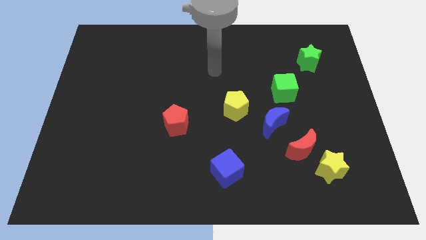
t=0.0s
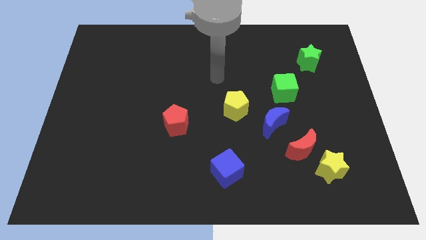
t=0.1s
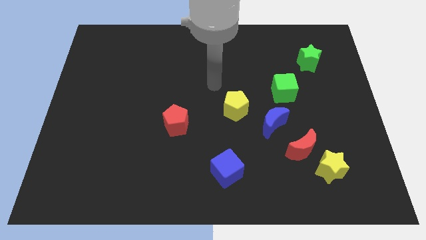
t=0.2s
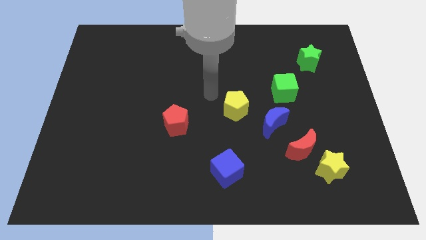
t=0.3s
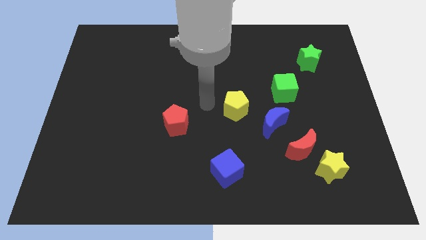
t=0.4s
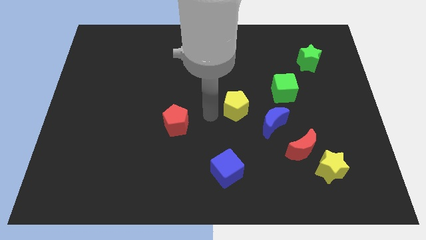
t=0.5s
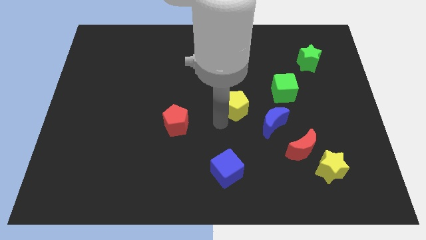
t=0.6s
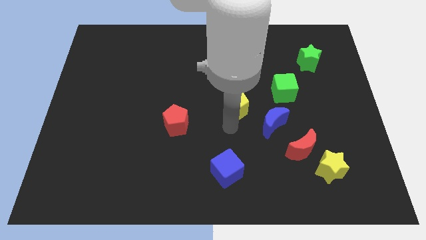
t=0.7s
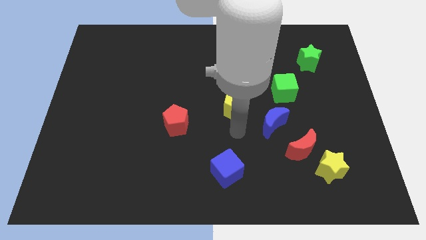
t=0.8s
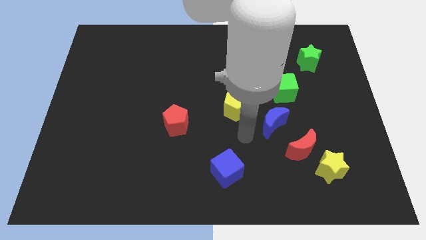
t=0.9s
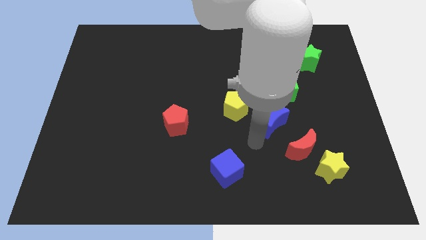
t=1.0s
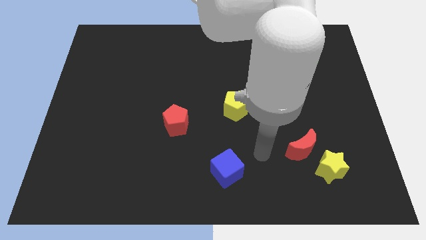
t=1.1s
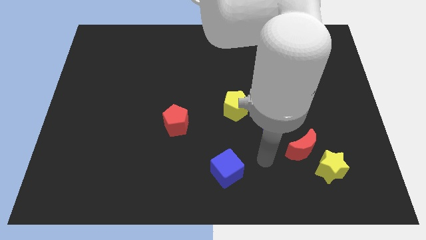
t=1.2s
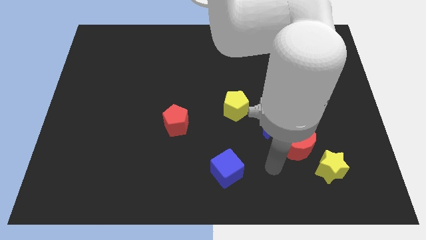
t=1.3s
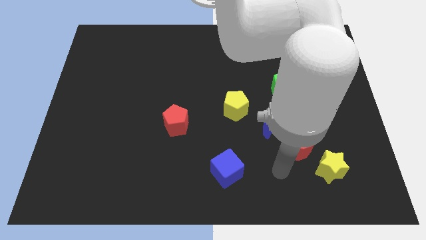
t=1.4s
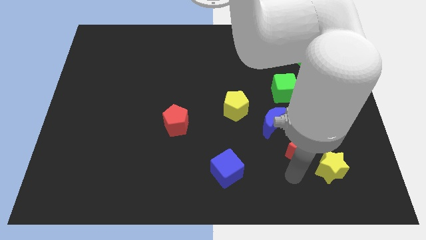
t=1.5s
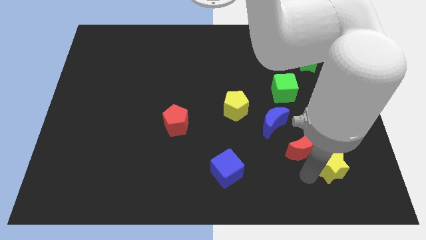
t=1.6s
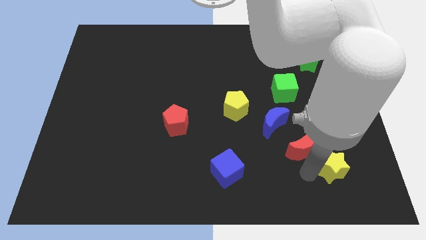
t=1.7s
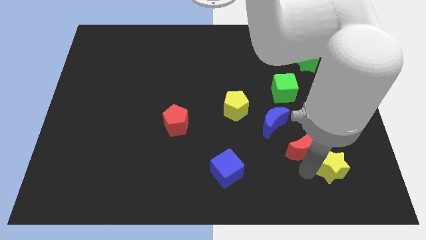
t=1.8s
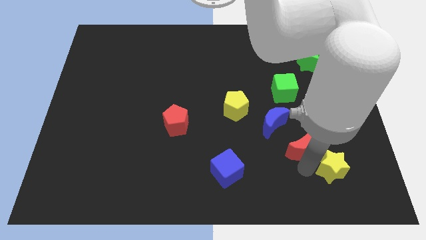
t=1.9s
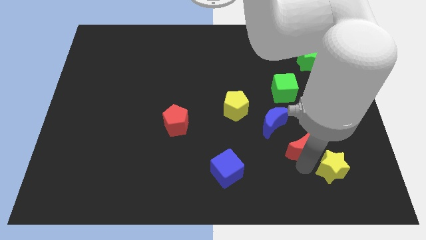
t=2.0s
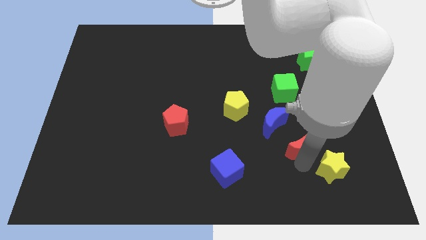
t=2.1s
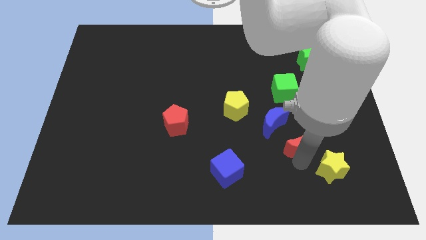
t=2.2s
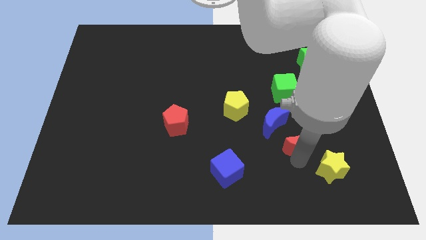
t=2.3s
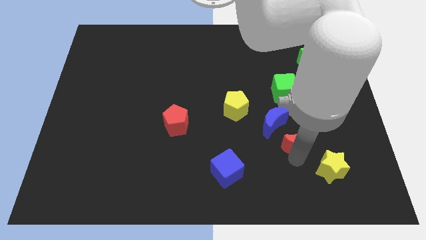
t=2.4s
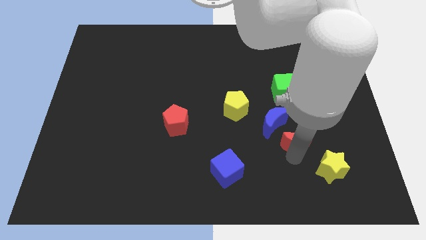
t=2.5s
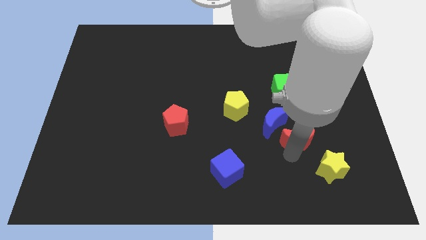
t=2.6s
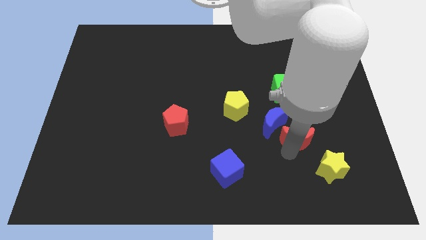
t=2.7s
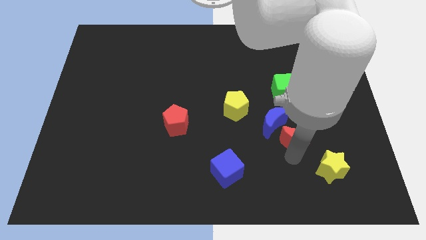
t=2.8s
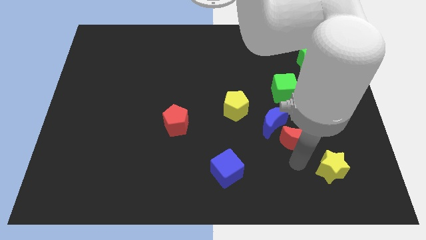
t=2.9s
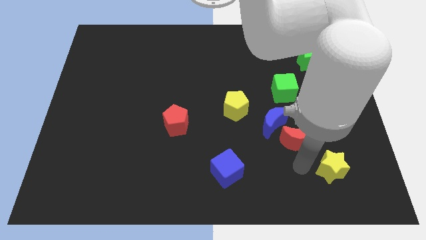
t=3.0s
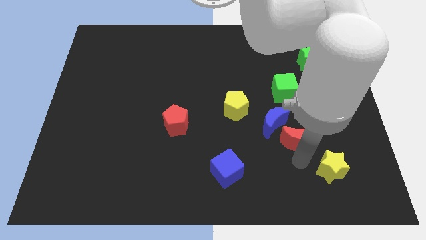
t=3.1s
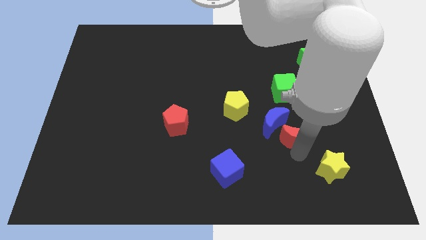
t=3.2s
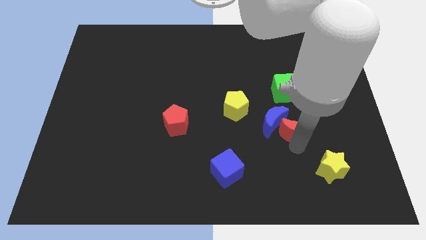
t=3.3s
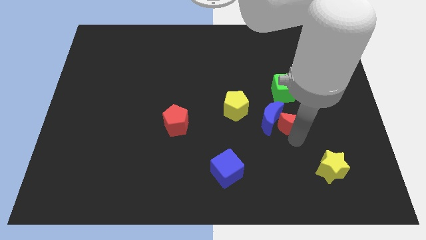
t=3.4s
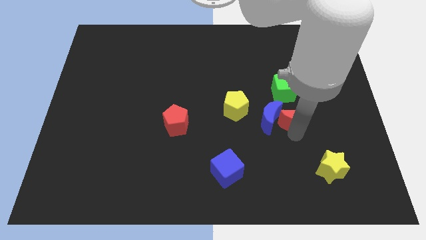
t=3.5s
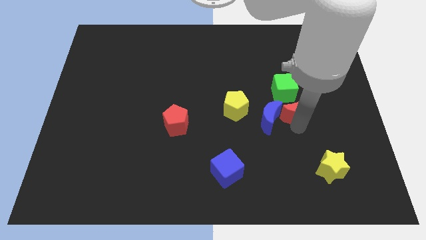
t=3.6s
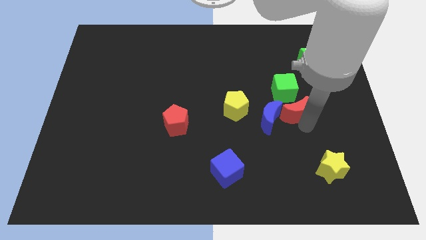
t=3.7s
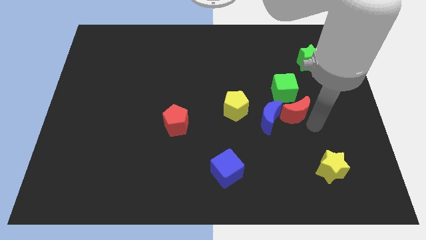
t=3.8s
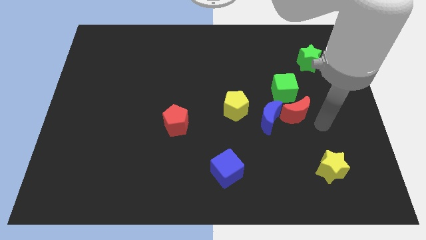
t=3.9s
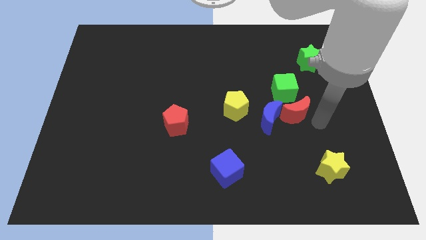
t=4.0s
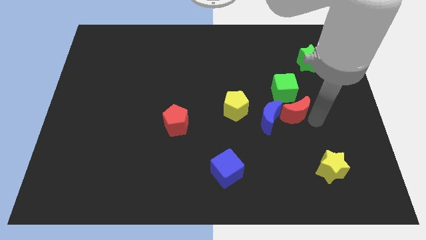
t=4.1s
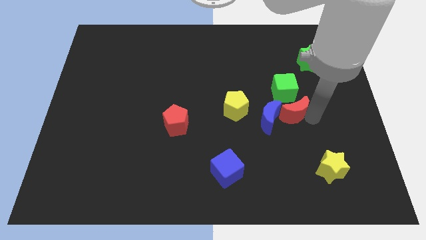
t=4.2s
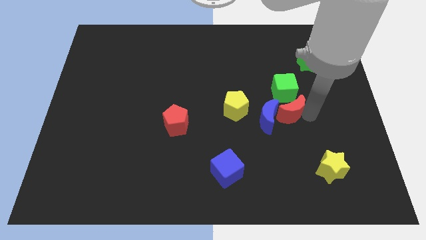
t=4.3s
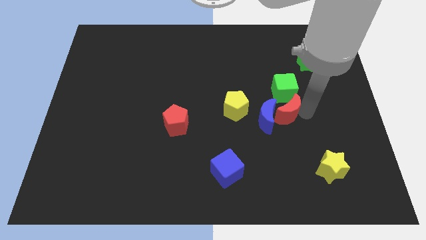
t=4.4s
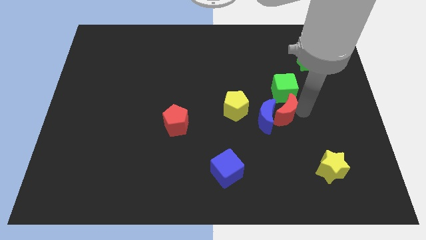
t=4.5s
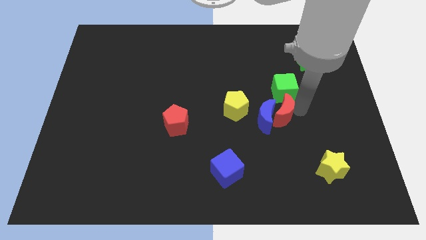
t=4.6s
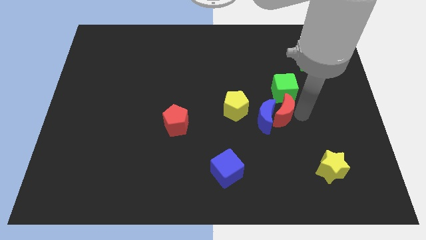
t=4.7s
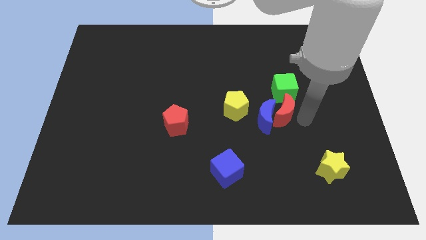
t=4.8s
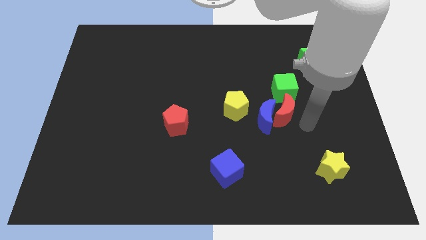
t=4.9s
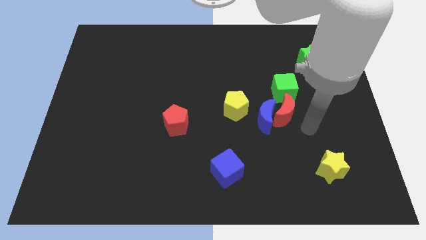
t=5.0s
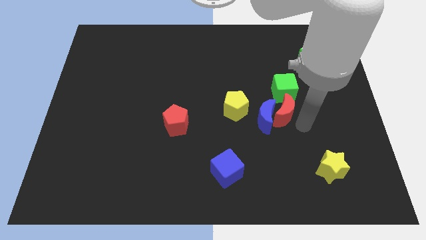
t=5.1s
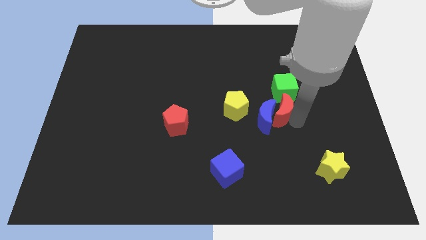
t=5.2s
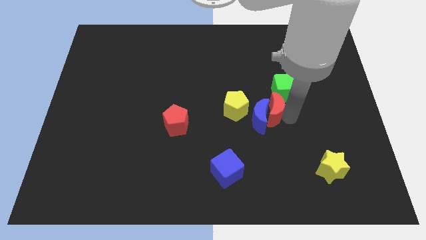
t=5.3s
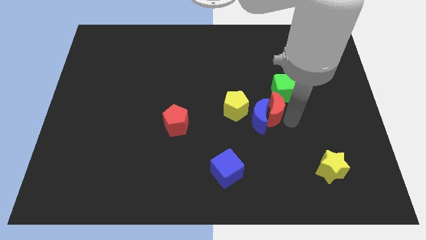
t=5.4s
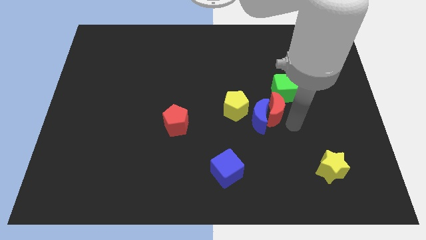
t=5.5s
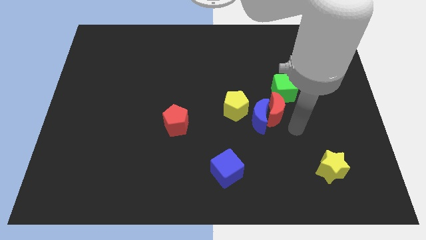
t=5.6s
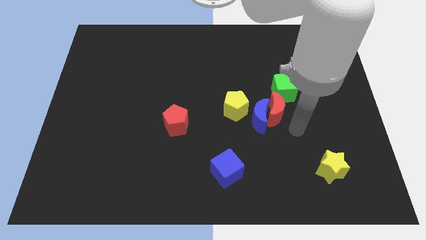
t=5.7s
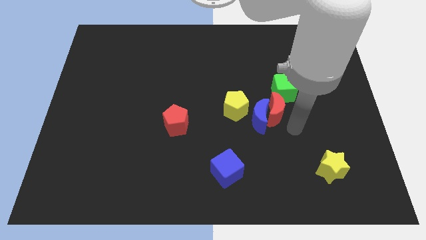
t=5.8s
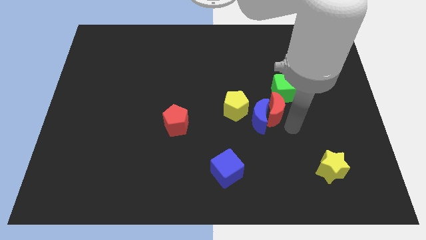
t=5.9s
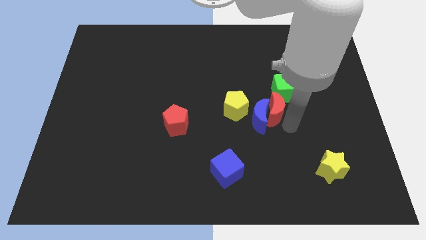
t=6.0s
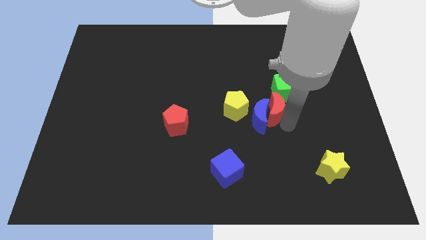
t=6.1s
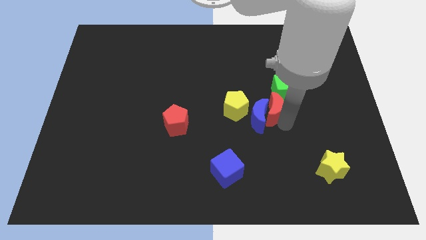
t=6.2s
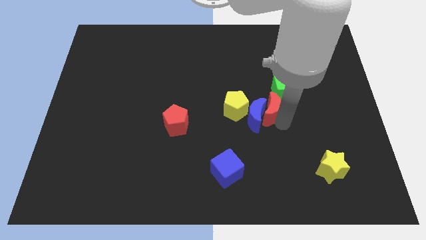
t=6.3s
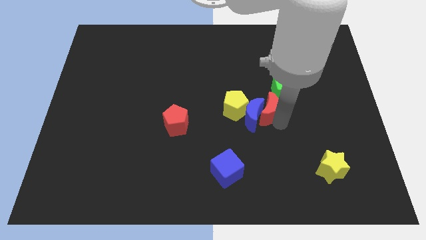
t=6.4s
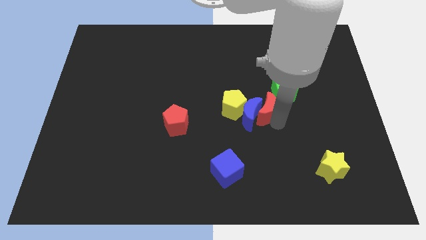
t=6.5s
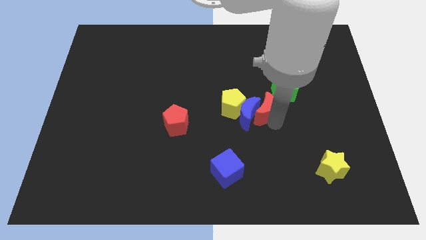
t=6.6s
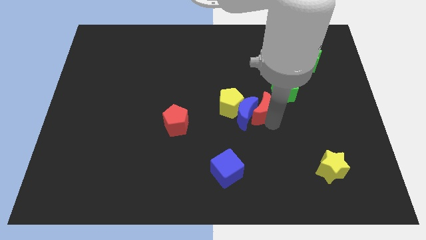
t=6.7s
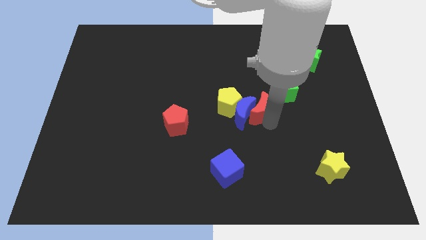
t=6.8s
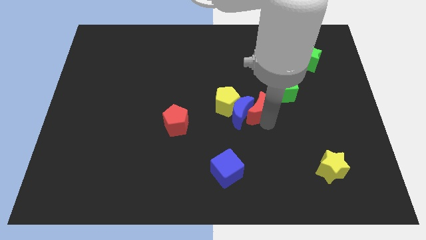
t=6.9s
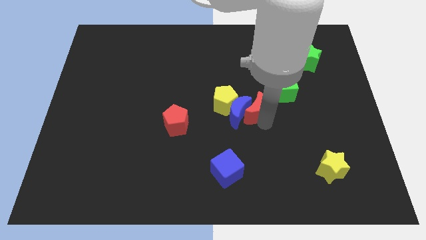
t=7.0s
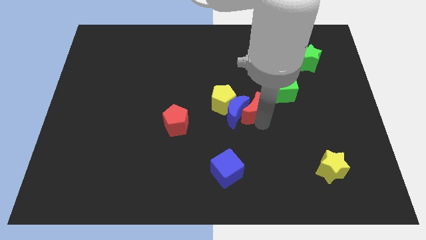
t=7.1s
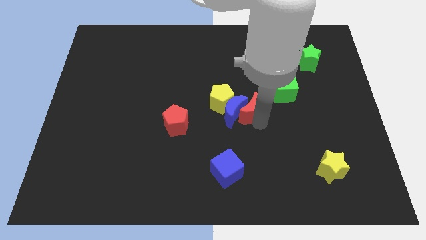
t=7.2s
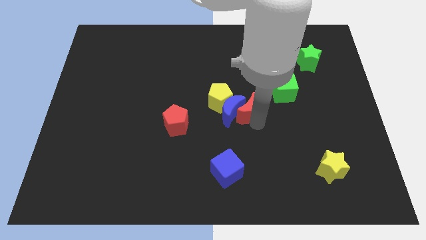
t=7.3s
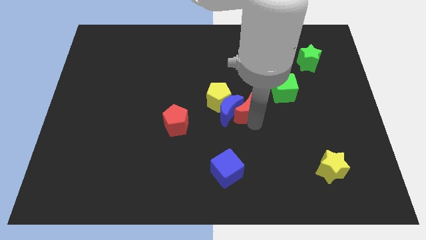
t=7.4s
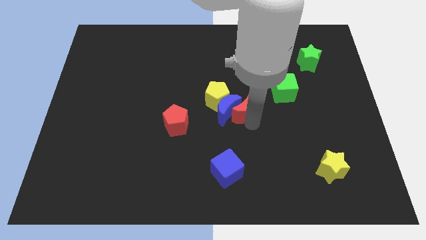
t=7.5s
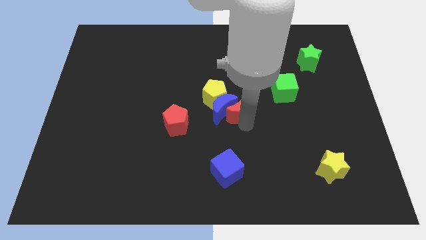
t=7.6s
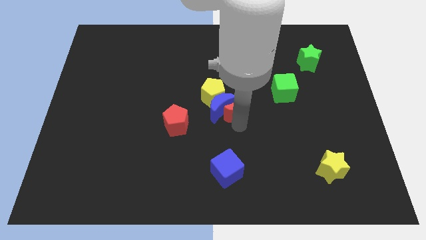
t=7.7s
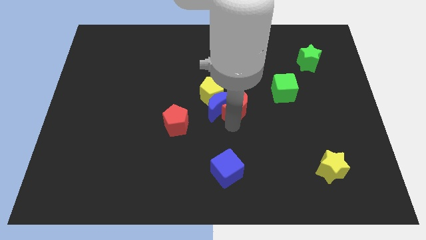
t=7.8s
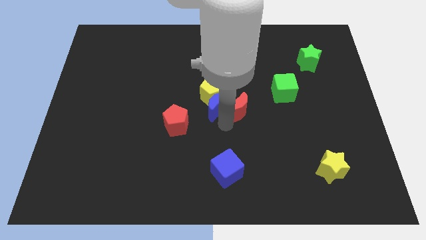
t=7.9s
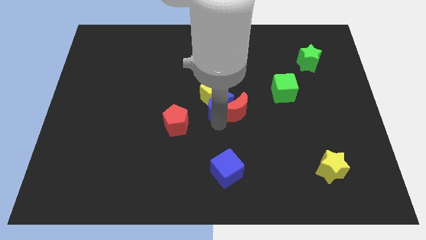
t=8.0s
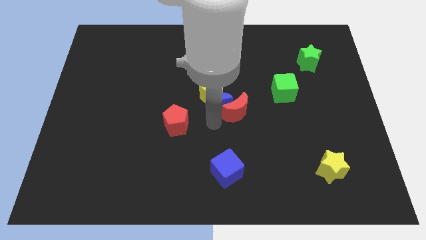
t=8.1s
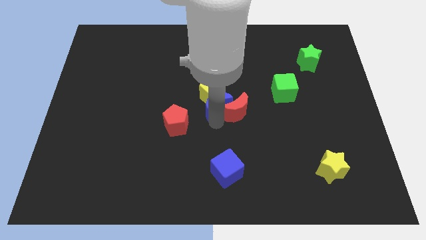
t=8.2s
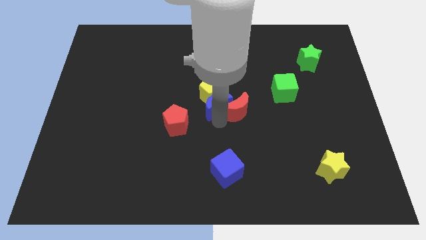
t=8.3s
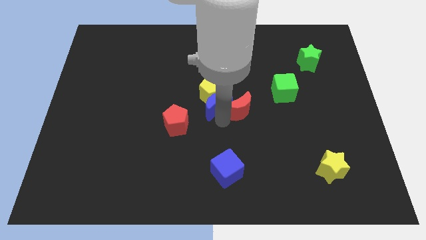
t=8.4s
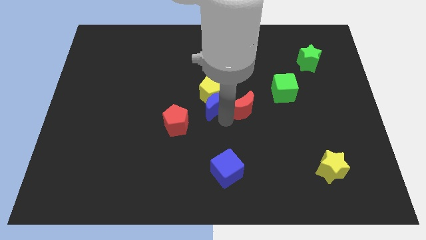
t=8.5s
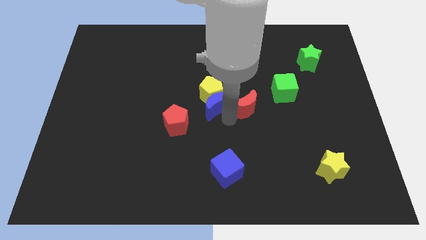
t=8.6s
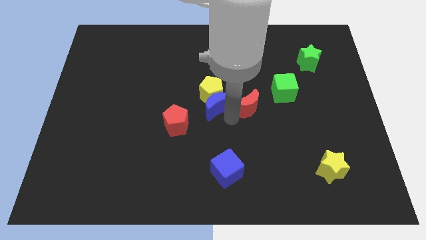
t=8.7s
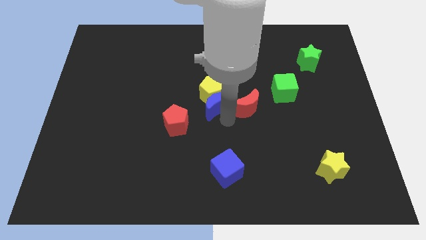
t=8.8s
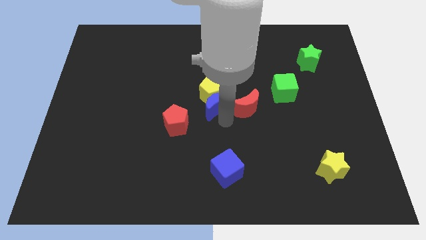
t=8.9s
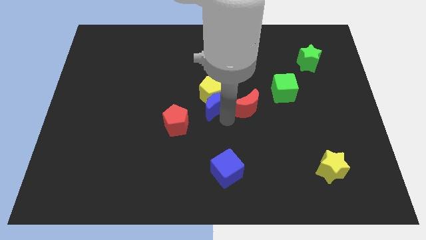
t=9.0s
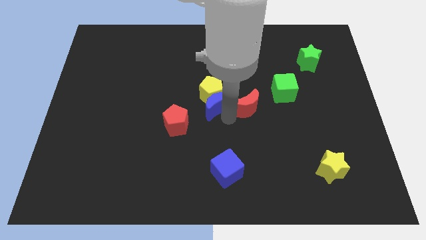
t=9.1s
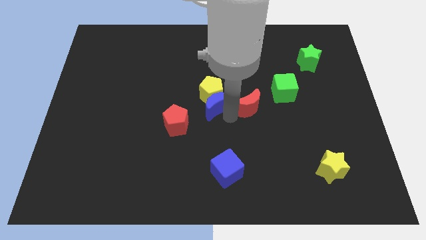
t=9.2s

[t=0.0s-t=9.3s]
slide the red moon left of the green cube
